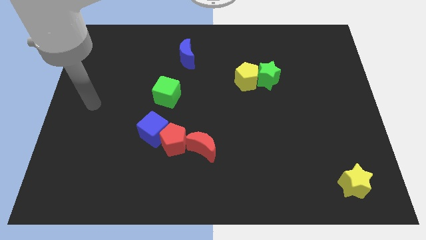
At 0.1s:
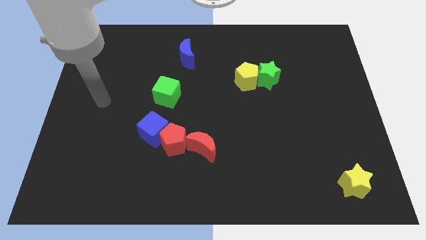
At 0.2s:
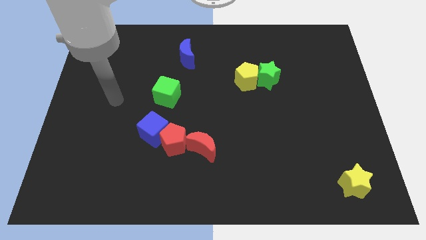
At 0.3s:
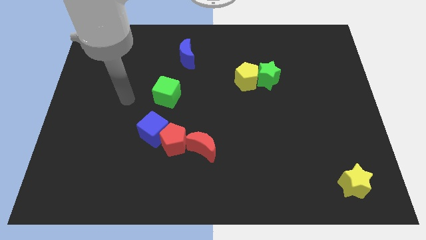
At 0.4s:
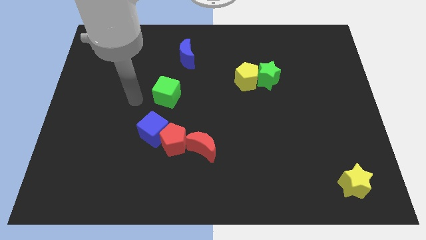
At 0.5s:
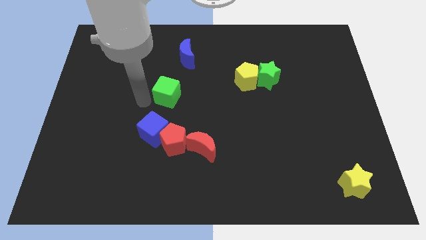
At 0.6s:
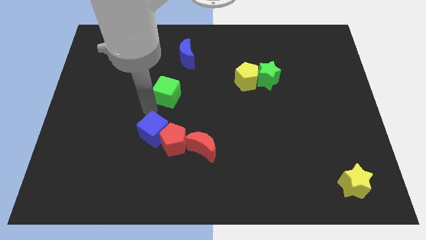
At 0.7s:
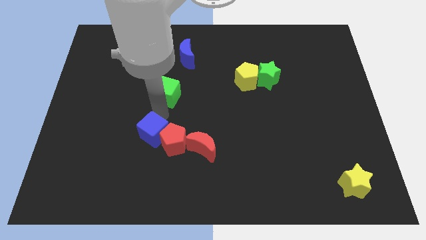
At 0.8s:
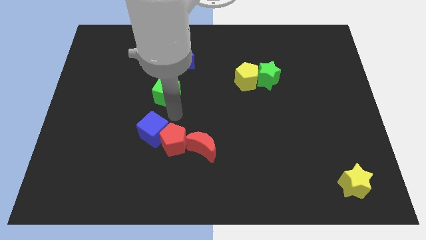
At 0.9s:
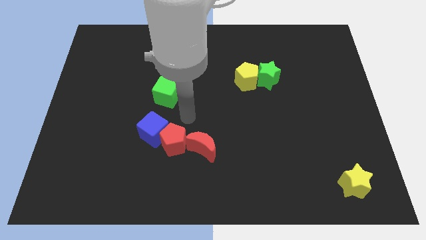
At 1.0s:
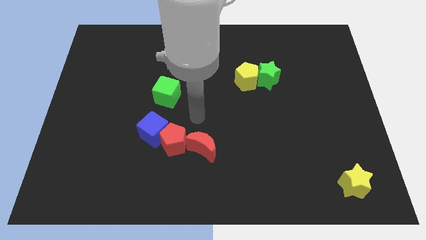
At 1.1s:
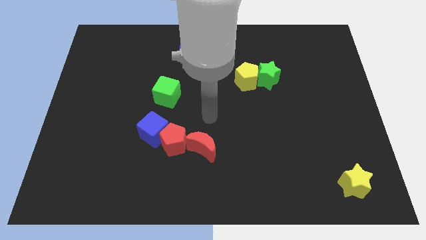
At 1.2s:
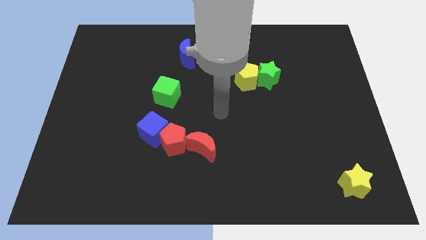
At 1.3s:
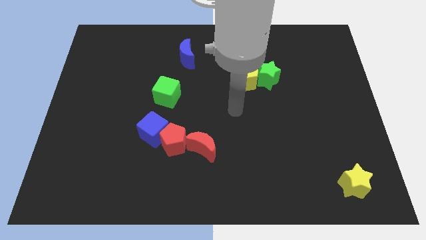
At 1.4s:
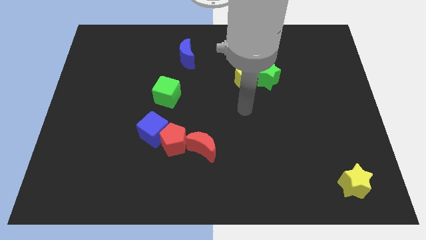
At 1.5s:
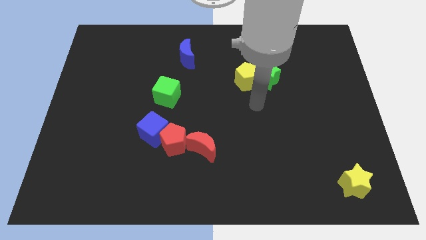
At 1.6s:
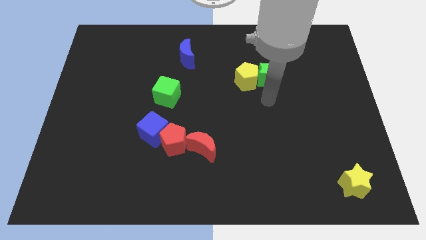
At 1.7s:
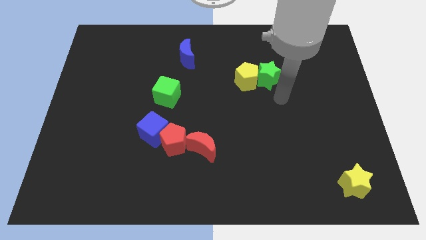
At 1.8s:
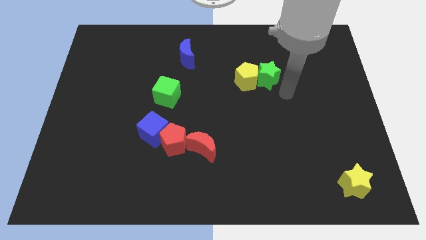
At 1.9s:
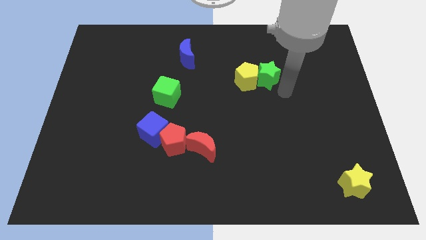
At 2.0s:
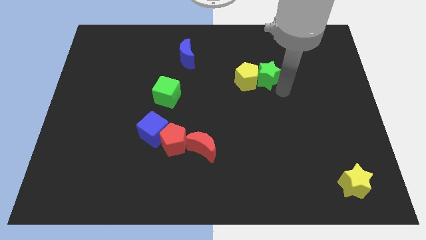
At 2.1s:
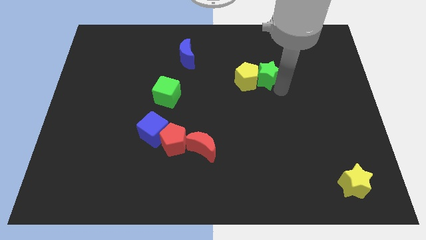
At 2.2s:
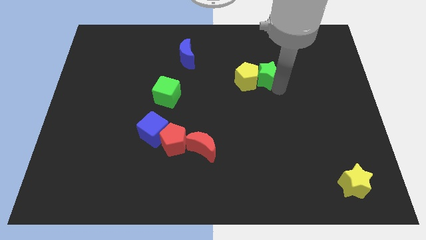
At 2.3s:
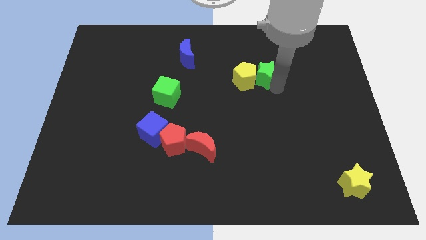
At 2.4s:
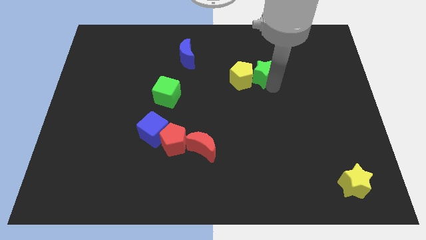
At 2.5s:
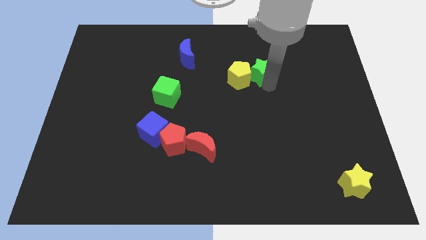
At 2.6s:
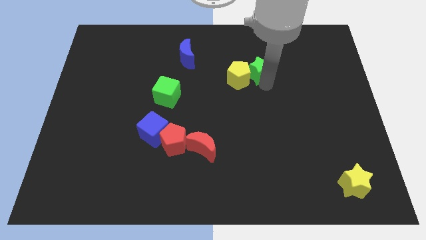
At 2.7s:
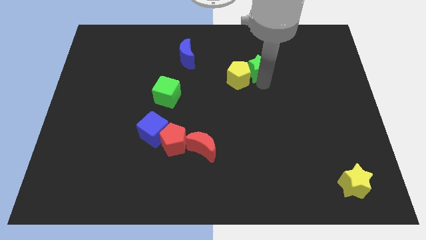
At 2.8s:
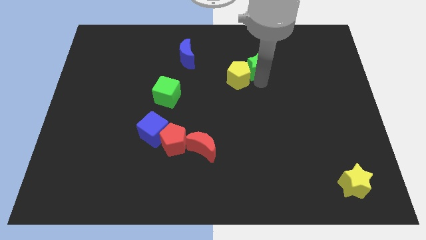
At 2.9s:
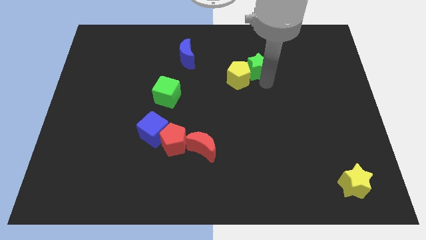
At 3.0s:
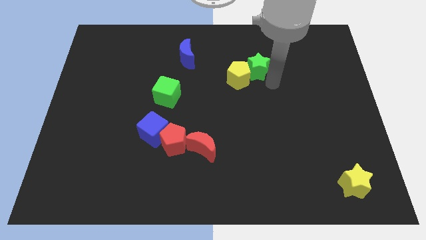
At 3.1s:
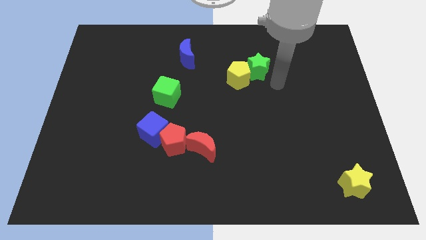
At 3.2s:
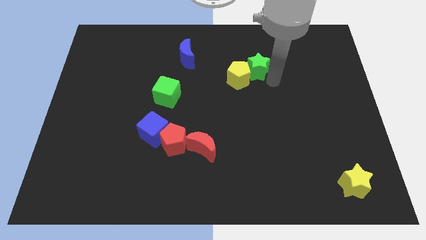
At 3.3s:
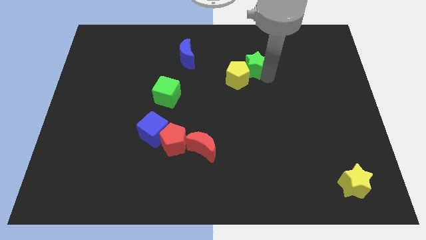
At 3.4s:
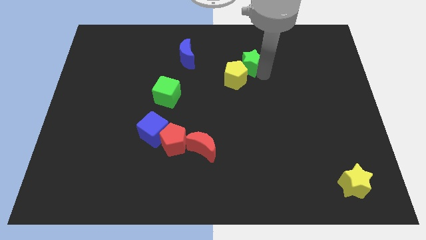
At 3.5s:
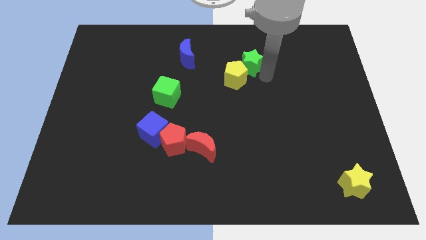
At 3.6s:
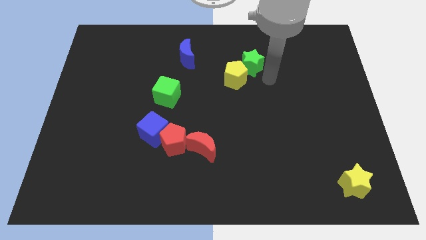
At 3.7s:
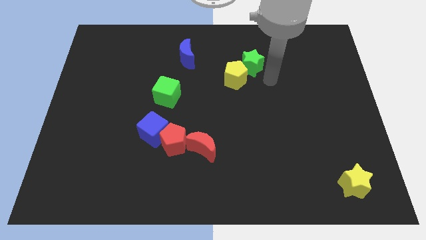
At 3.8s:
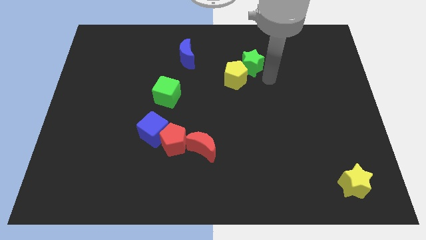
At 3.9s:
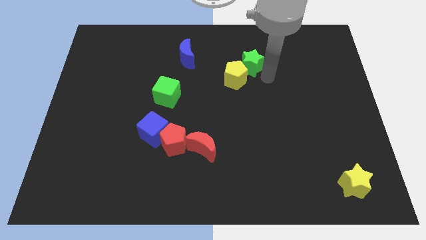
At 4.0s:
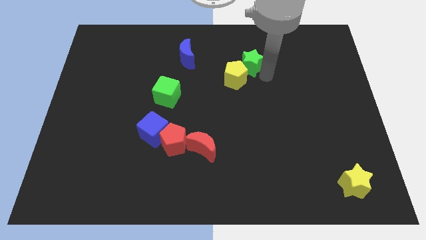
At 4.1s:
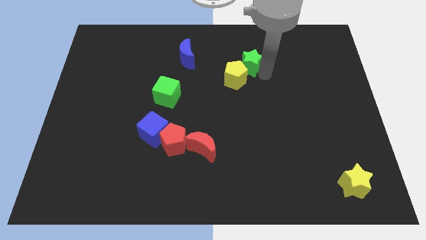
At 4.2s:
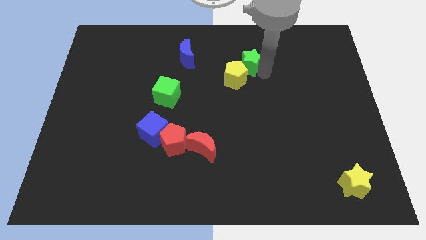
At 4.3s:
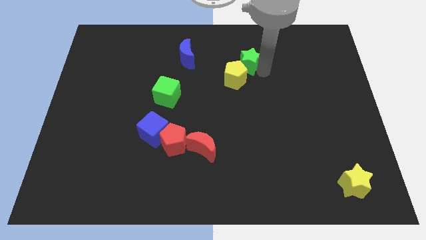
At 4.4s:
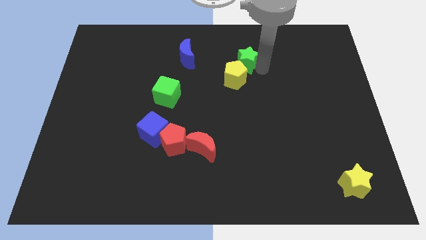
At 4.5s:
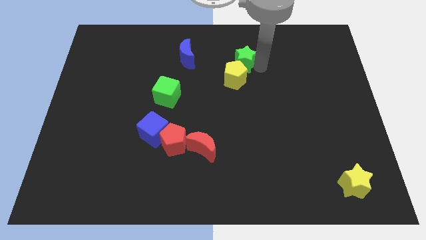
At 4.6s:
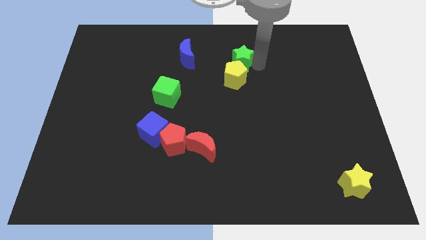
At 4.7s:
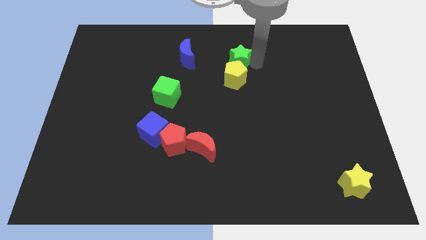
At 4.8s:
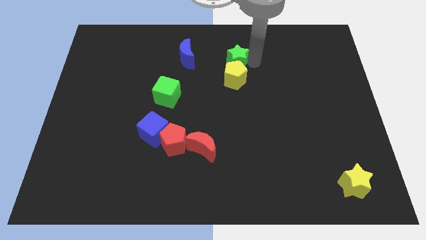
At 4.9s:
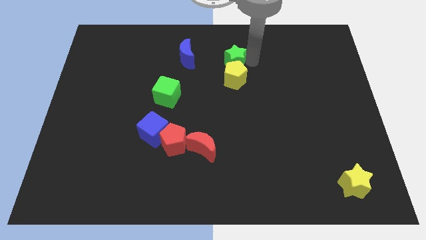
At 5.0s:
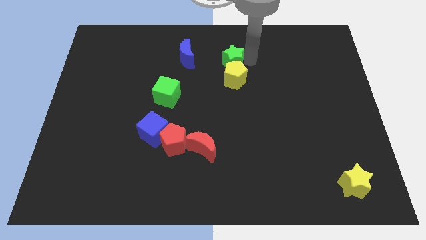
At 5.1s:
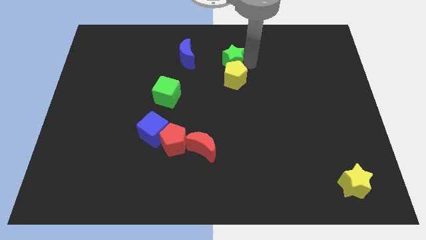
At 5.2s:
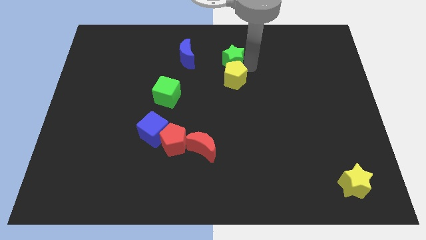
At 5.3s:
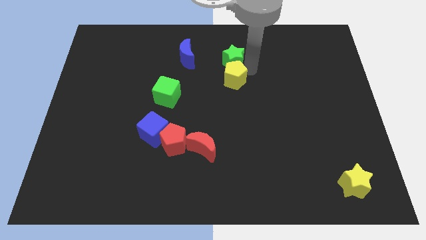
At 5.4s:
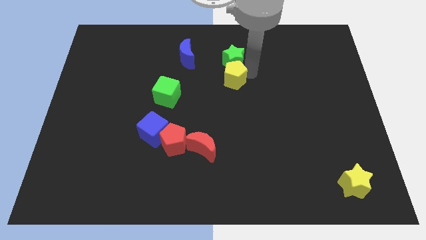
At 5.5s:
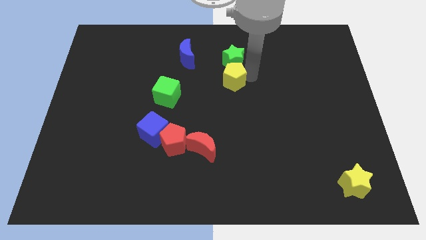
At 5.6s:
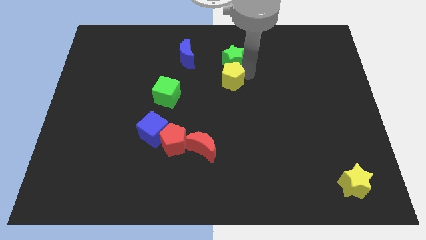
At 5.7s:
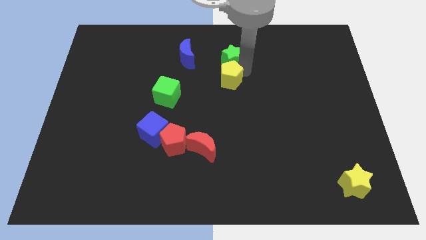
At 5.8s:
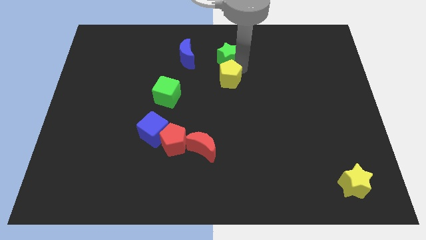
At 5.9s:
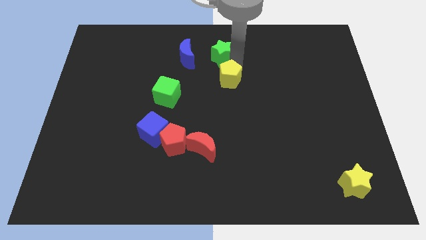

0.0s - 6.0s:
put the green star to the top
